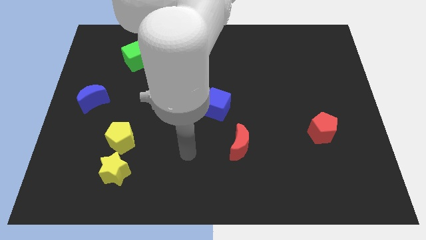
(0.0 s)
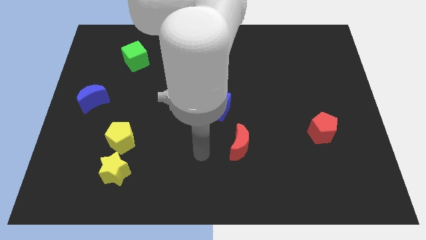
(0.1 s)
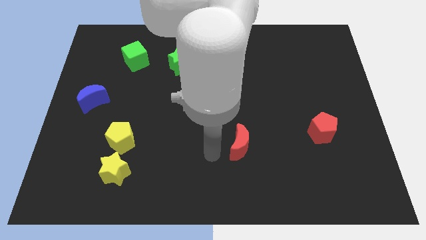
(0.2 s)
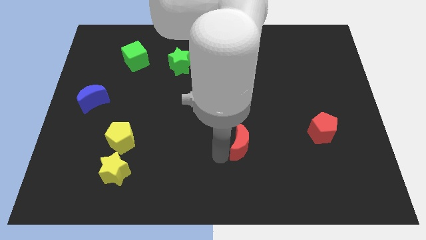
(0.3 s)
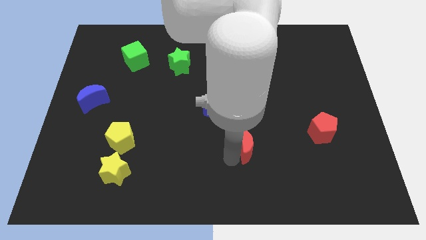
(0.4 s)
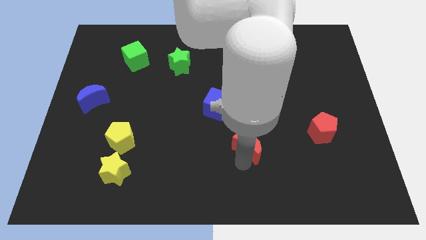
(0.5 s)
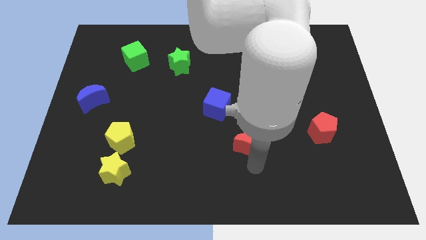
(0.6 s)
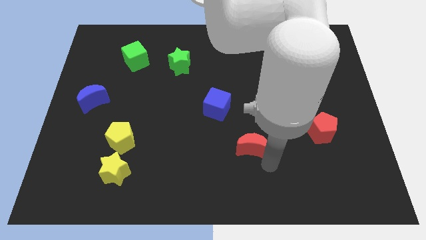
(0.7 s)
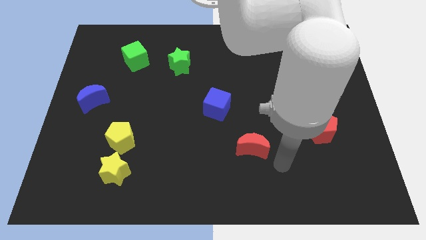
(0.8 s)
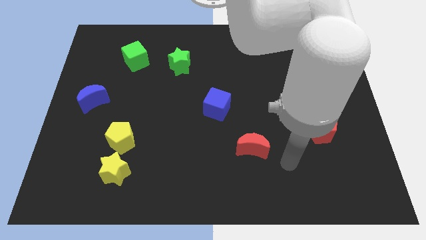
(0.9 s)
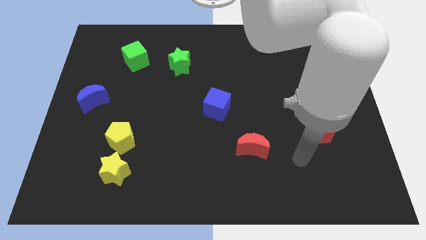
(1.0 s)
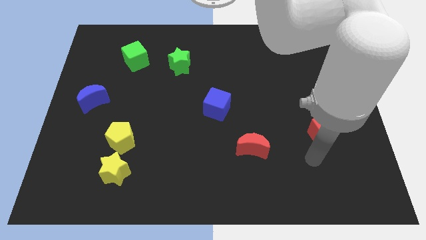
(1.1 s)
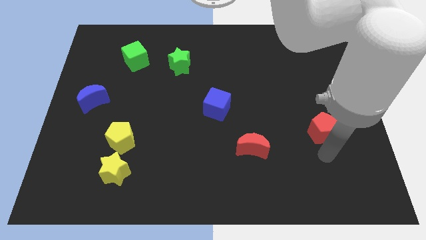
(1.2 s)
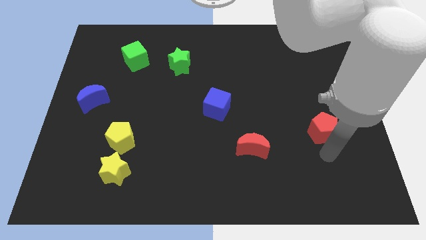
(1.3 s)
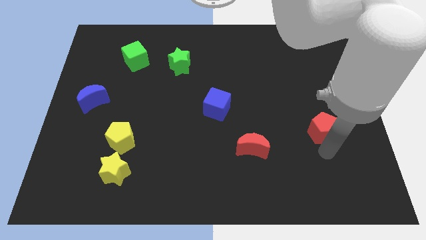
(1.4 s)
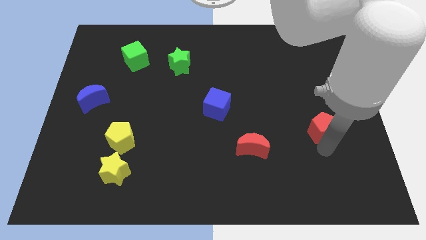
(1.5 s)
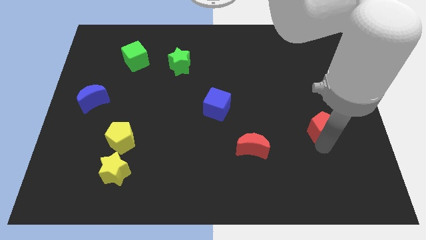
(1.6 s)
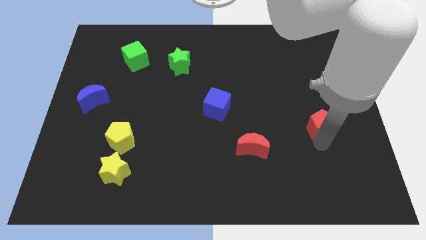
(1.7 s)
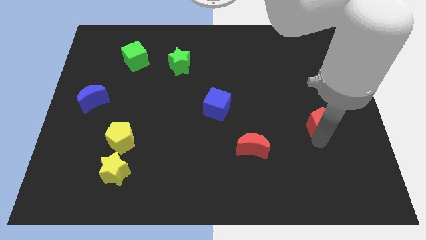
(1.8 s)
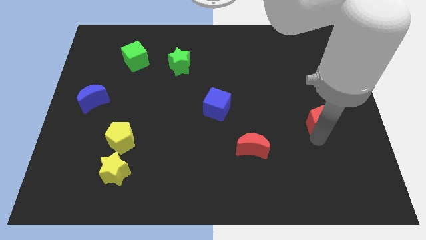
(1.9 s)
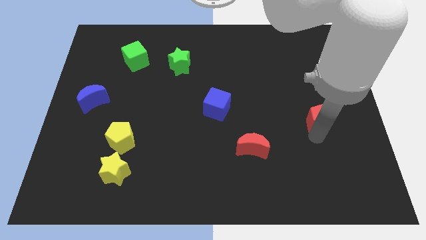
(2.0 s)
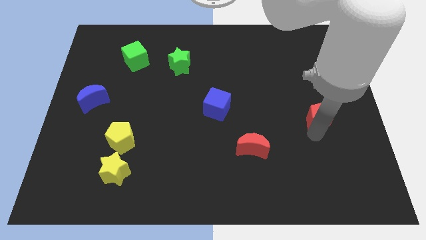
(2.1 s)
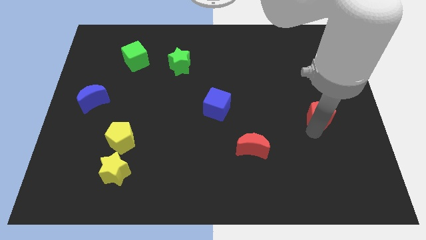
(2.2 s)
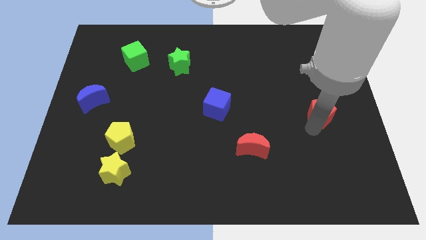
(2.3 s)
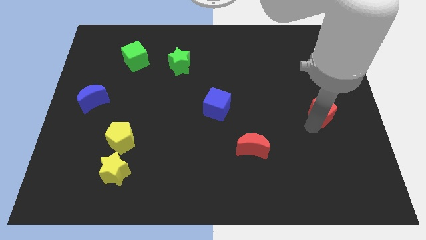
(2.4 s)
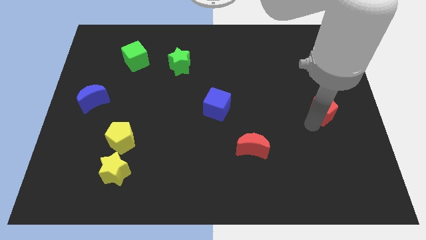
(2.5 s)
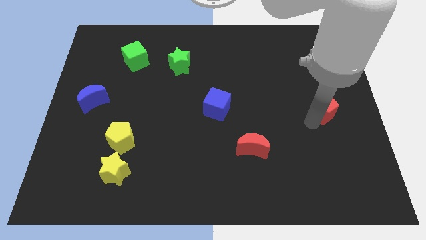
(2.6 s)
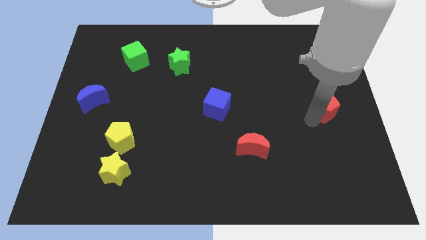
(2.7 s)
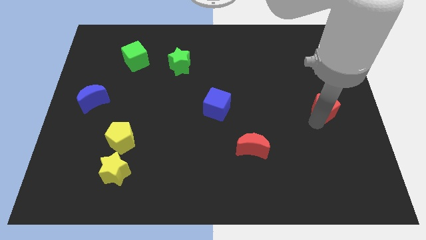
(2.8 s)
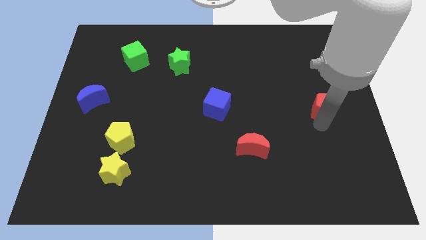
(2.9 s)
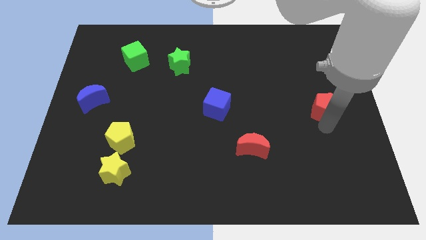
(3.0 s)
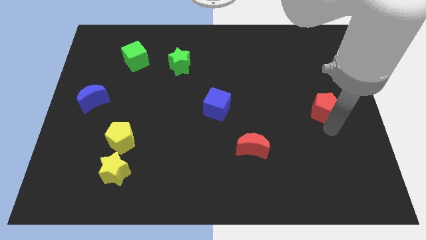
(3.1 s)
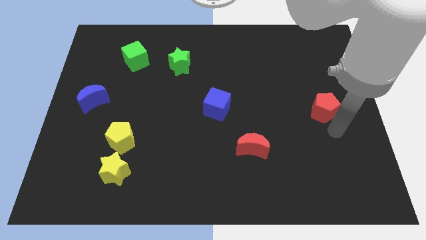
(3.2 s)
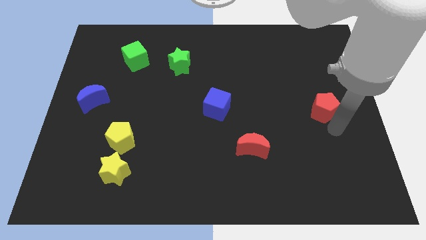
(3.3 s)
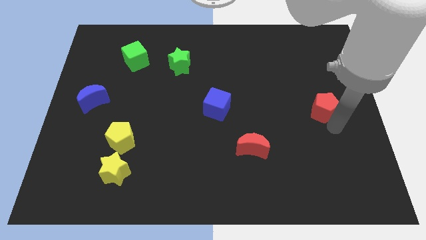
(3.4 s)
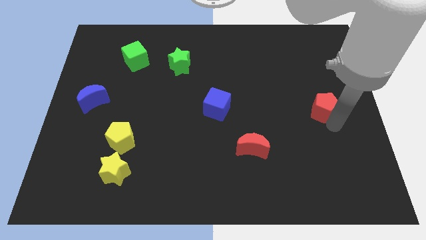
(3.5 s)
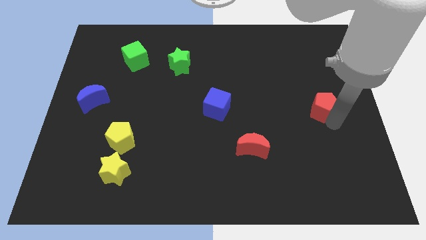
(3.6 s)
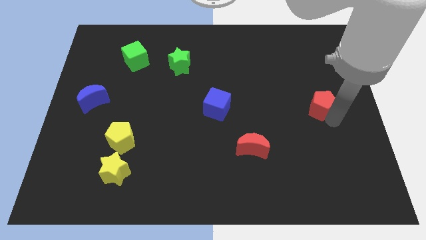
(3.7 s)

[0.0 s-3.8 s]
slightly push the red pentagon up

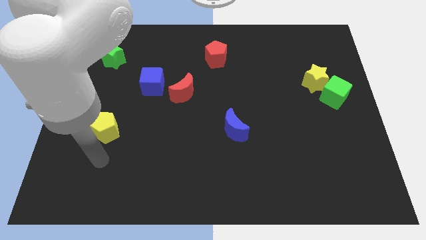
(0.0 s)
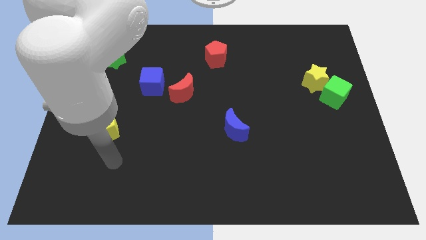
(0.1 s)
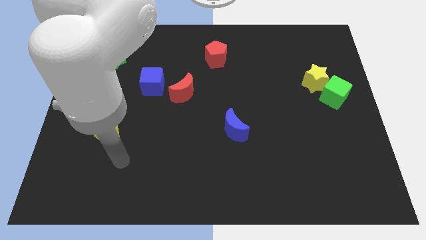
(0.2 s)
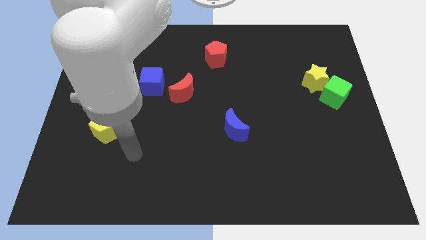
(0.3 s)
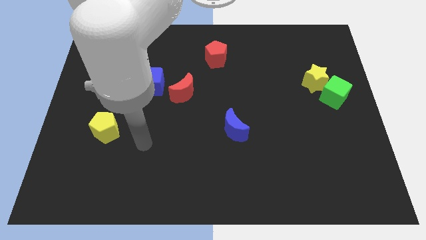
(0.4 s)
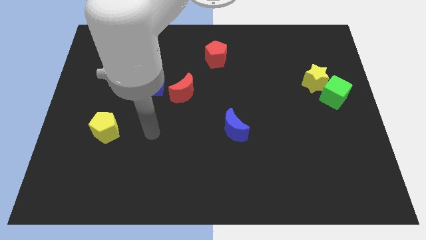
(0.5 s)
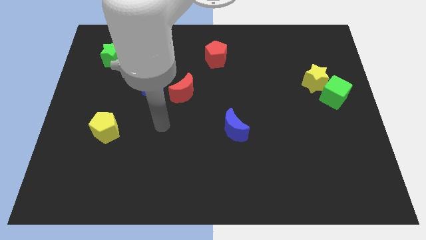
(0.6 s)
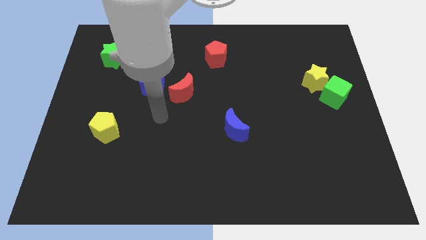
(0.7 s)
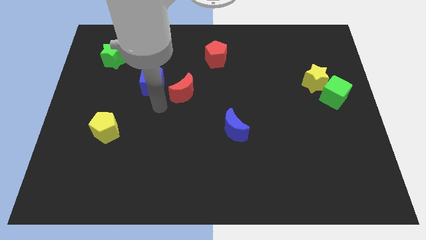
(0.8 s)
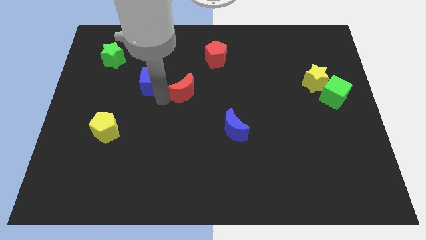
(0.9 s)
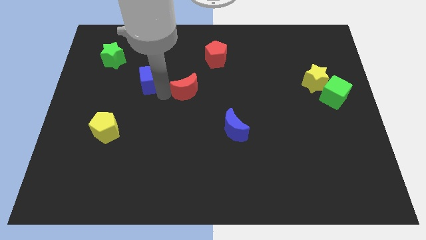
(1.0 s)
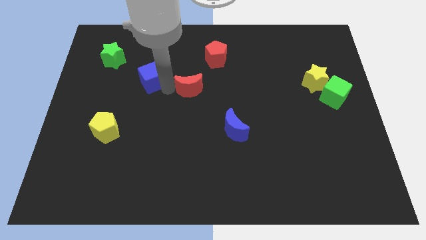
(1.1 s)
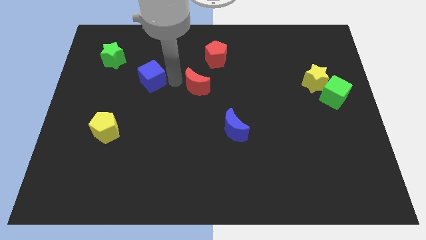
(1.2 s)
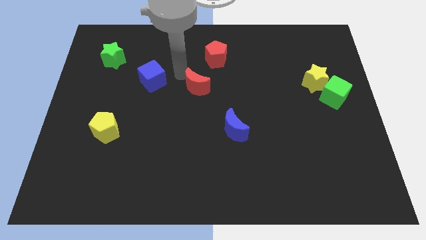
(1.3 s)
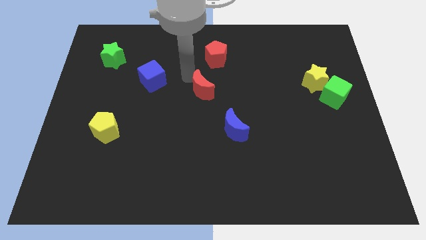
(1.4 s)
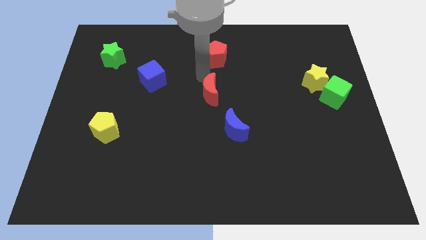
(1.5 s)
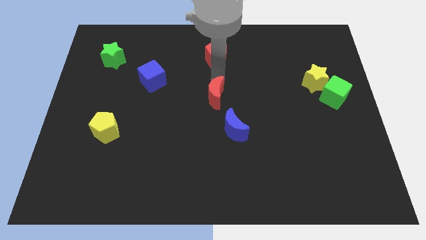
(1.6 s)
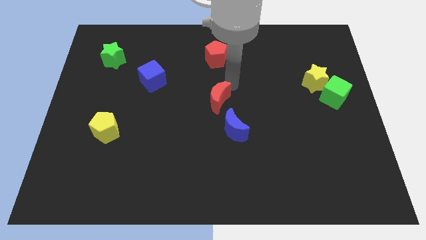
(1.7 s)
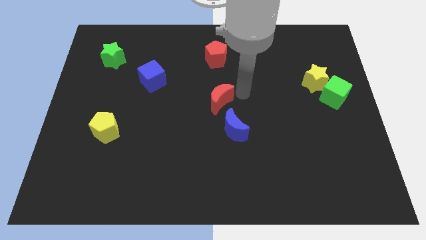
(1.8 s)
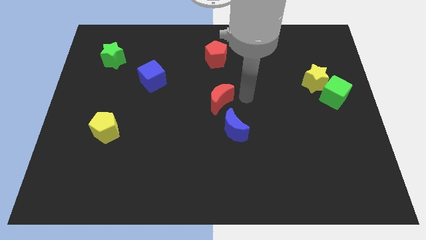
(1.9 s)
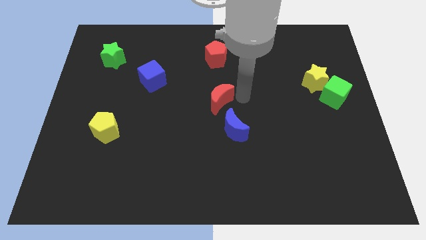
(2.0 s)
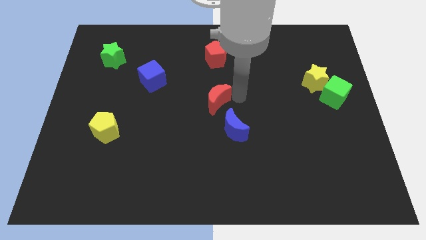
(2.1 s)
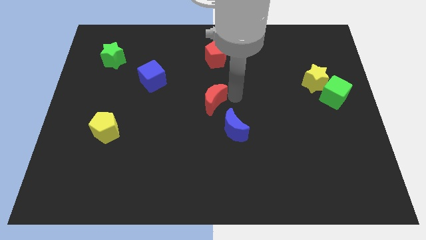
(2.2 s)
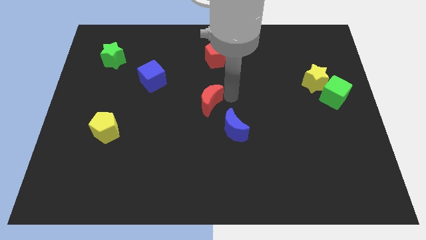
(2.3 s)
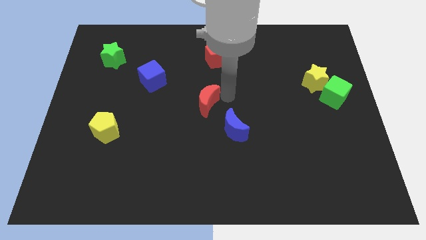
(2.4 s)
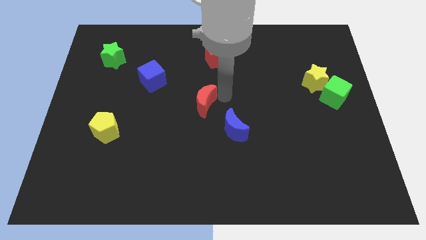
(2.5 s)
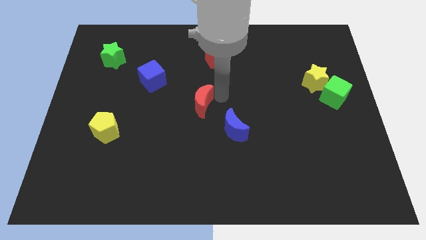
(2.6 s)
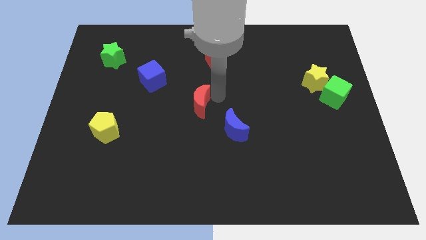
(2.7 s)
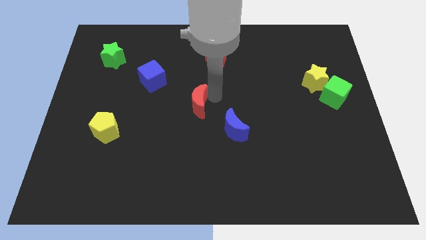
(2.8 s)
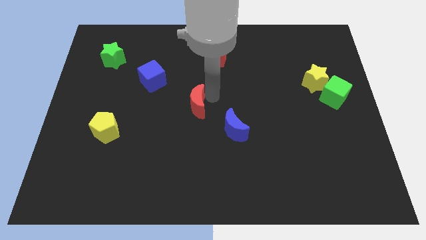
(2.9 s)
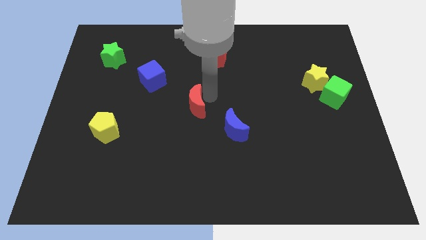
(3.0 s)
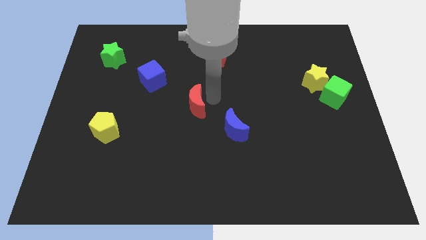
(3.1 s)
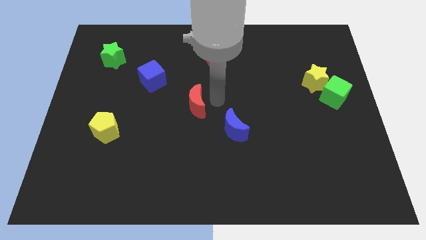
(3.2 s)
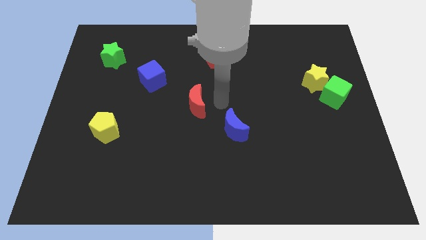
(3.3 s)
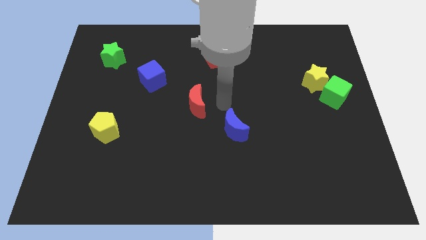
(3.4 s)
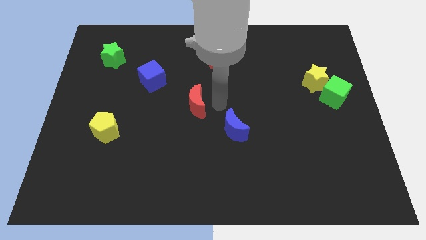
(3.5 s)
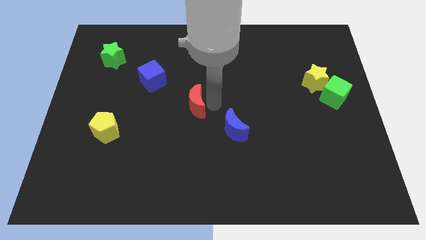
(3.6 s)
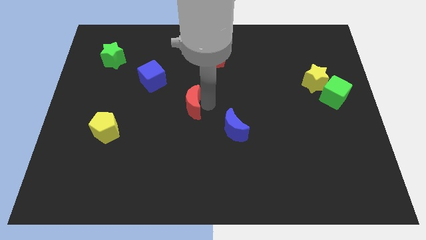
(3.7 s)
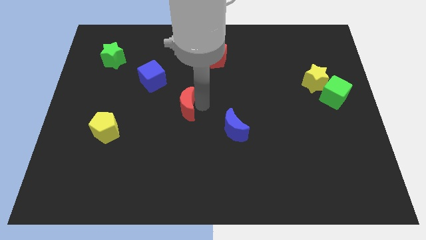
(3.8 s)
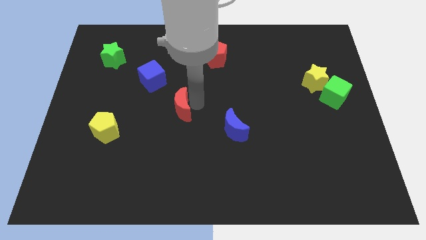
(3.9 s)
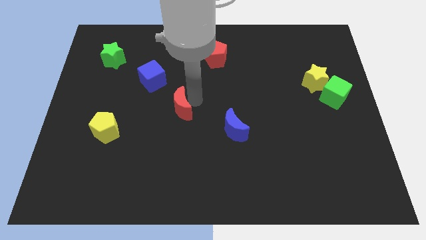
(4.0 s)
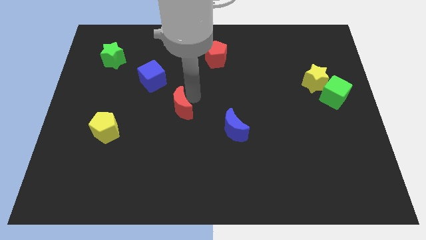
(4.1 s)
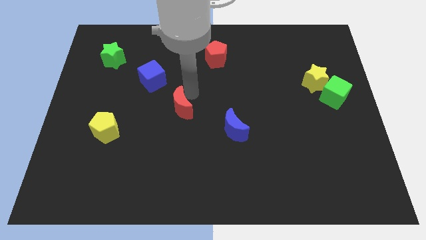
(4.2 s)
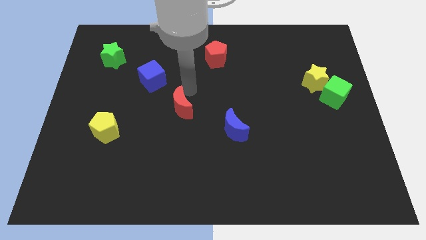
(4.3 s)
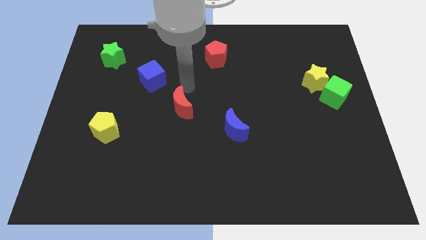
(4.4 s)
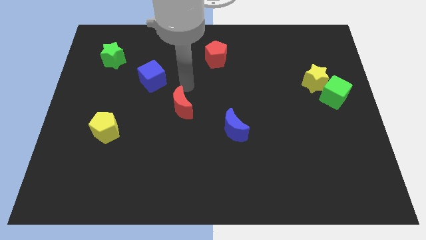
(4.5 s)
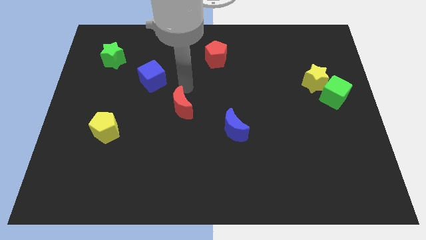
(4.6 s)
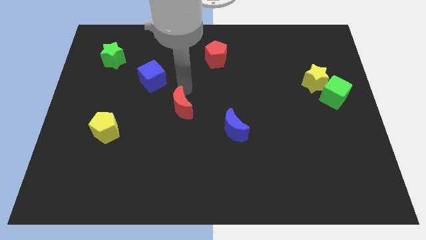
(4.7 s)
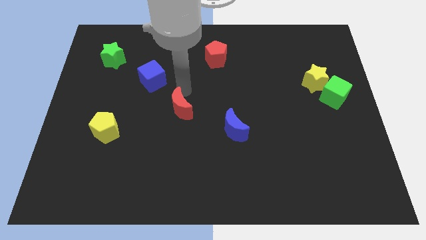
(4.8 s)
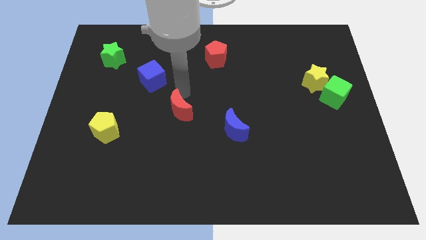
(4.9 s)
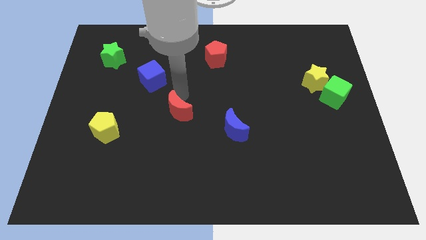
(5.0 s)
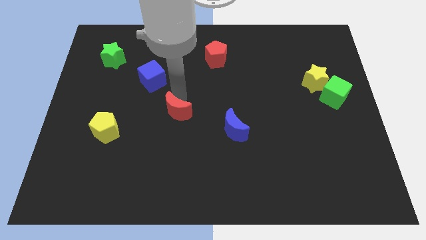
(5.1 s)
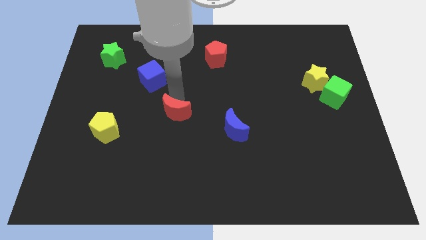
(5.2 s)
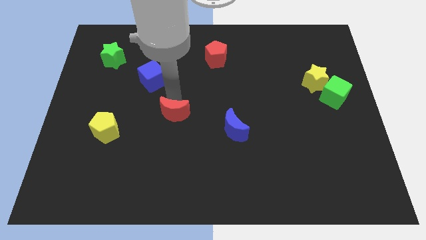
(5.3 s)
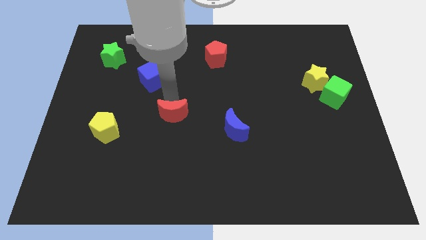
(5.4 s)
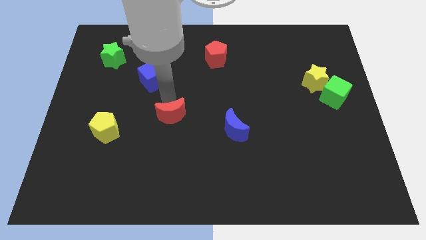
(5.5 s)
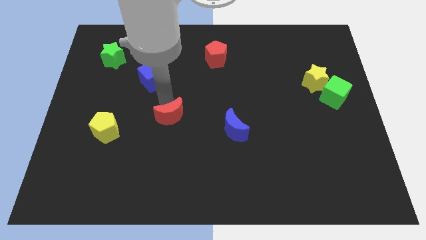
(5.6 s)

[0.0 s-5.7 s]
move the red moon a little down
